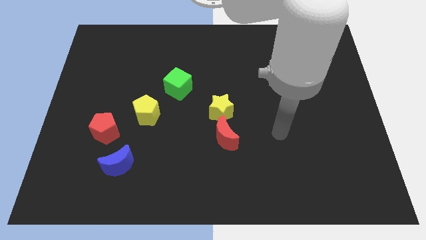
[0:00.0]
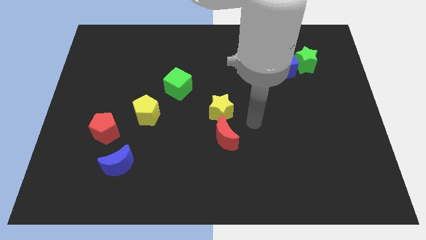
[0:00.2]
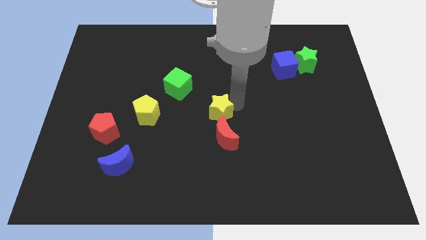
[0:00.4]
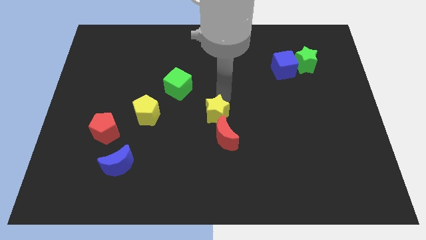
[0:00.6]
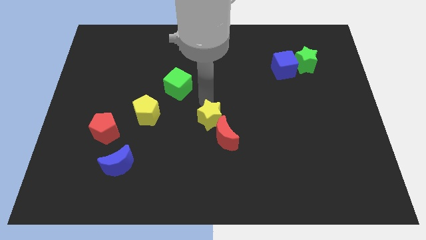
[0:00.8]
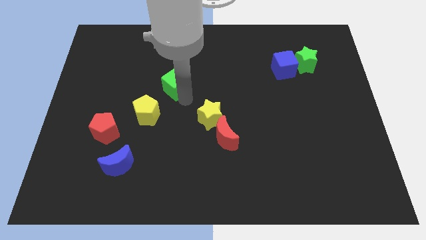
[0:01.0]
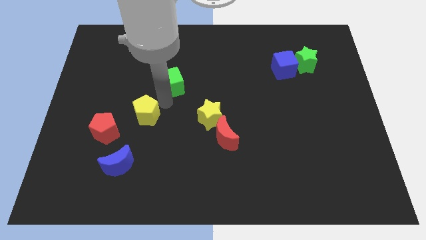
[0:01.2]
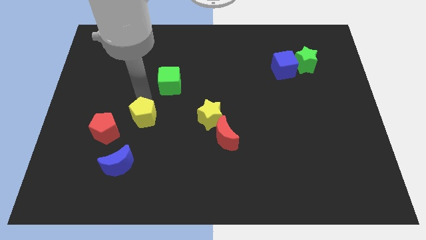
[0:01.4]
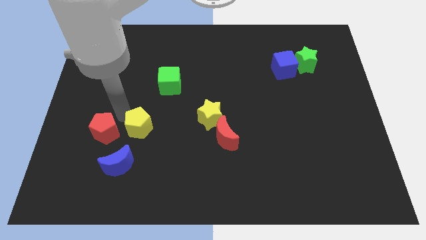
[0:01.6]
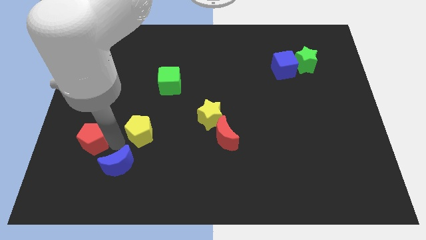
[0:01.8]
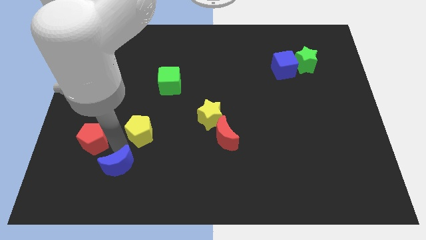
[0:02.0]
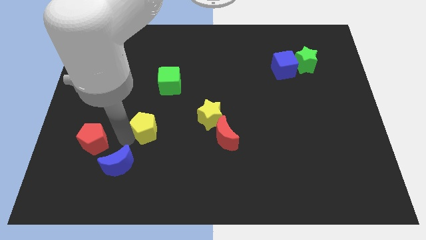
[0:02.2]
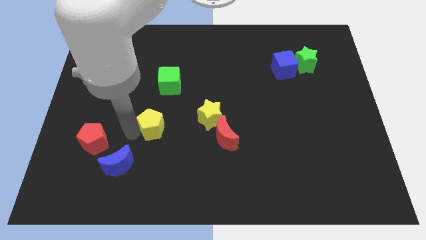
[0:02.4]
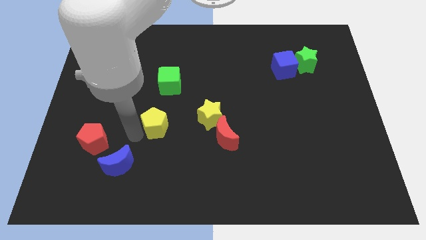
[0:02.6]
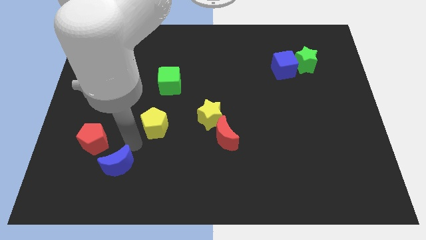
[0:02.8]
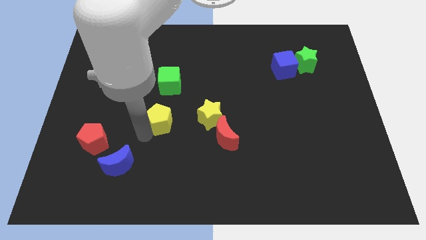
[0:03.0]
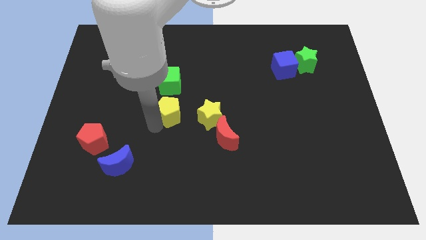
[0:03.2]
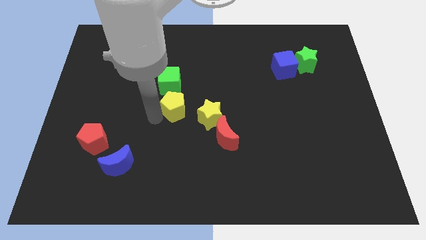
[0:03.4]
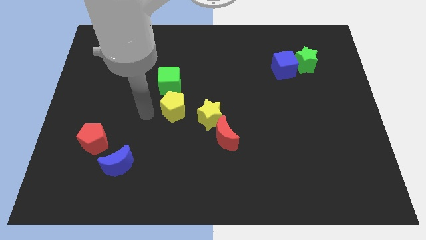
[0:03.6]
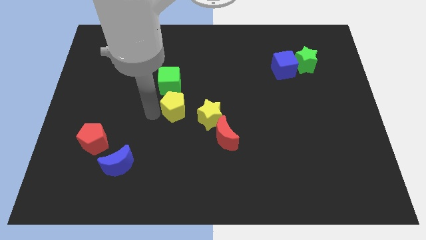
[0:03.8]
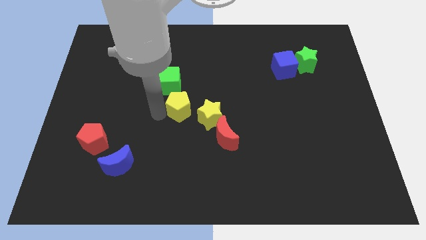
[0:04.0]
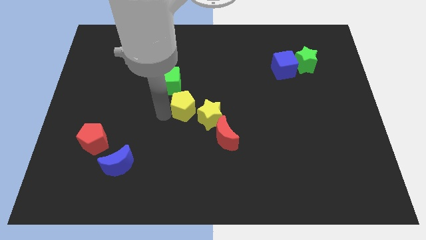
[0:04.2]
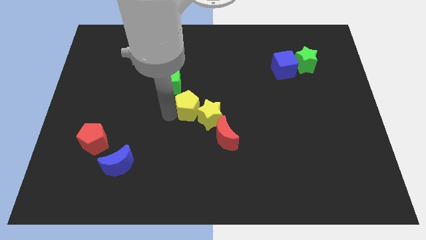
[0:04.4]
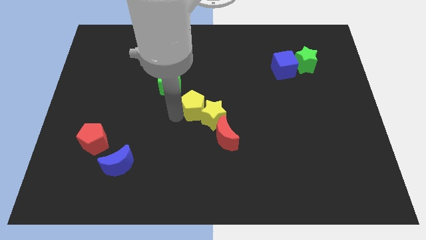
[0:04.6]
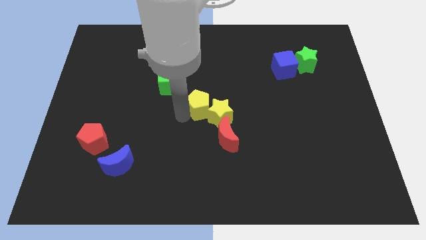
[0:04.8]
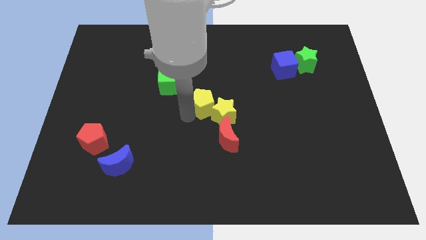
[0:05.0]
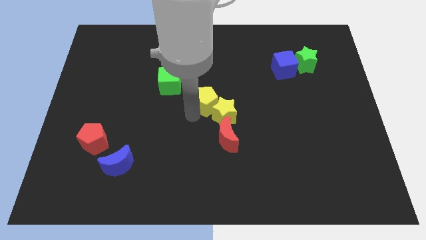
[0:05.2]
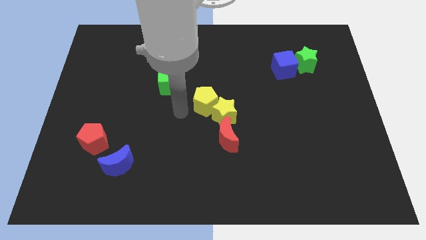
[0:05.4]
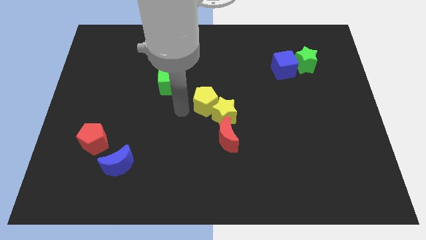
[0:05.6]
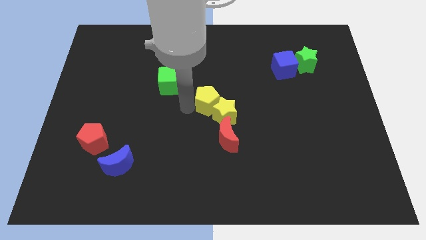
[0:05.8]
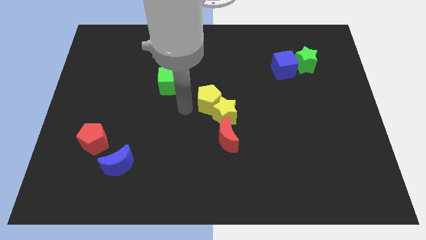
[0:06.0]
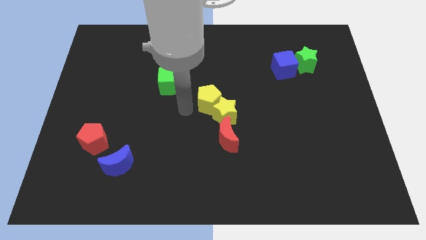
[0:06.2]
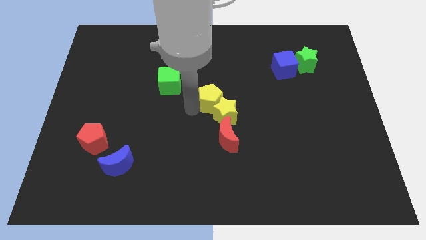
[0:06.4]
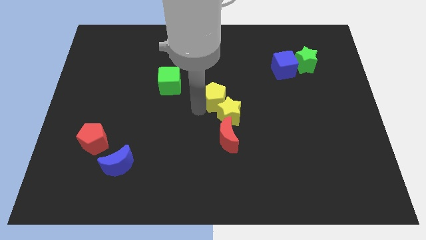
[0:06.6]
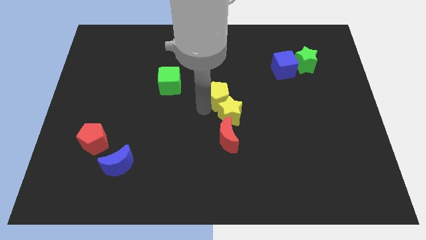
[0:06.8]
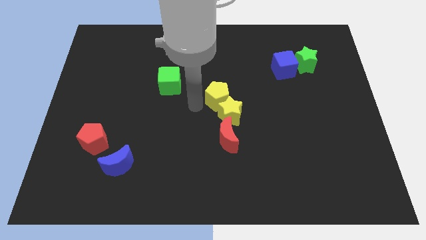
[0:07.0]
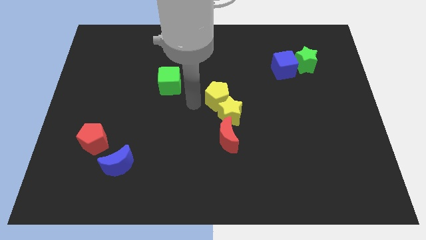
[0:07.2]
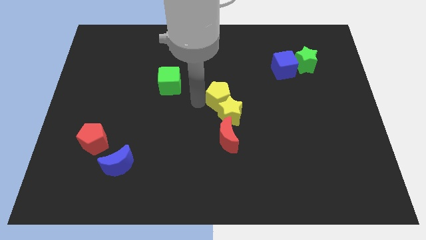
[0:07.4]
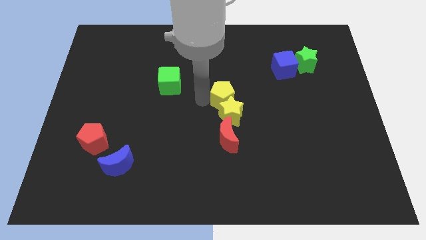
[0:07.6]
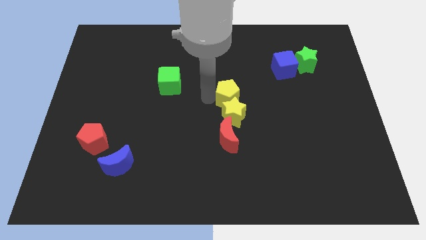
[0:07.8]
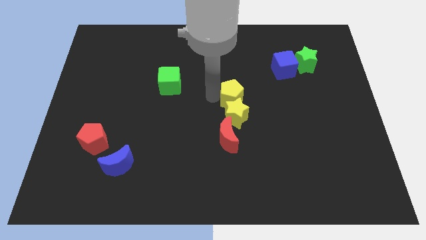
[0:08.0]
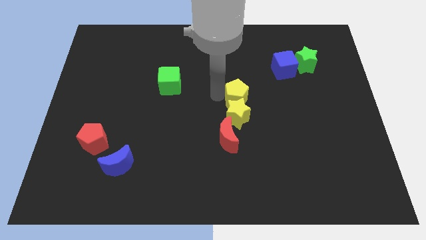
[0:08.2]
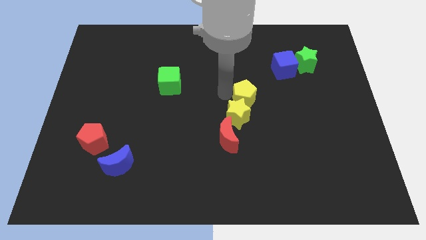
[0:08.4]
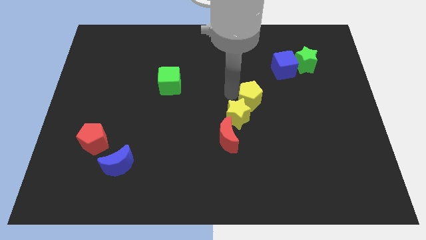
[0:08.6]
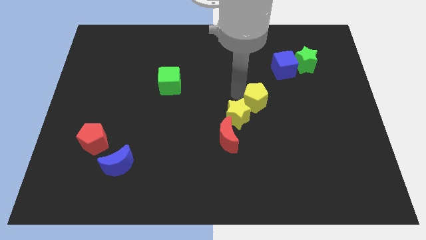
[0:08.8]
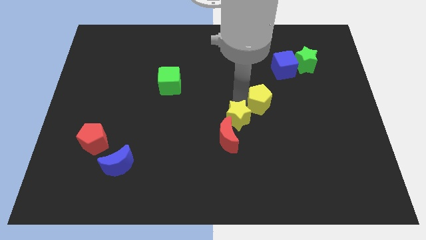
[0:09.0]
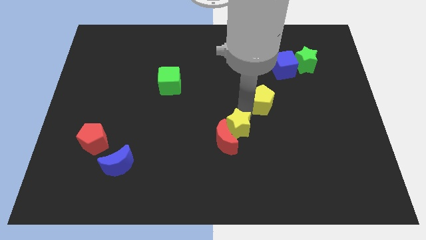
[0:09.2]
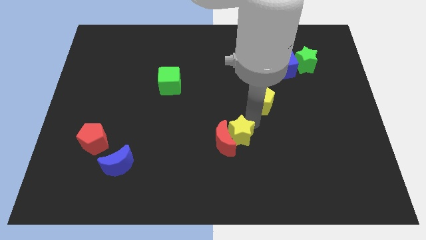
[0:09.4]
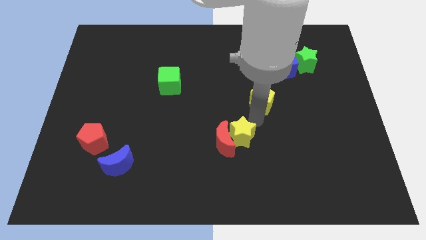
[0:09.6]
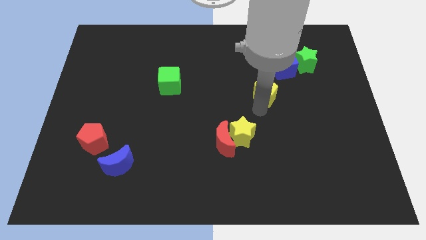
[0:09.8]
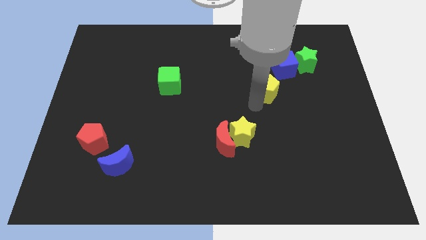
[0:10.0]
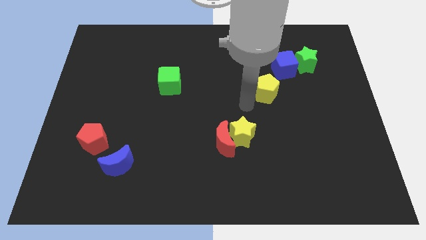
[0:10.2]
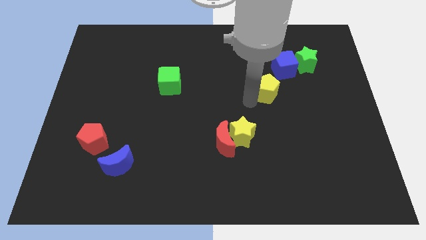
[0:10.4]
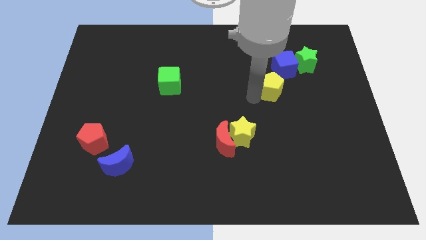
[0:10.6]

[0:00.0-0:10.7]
put the yellow pentagon to the bottom left of the green star

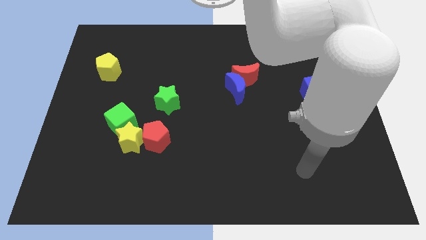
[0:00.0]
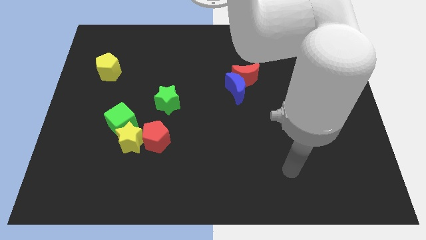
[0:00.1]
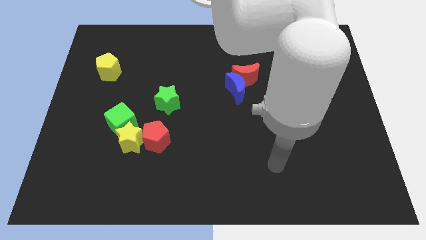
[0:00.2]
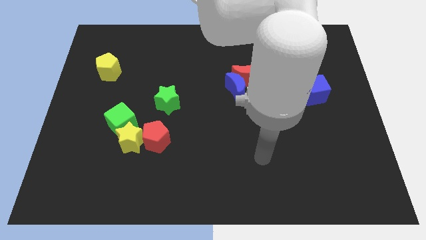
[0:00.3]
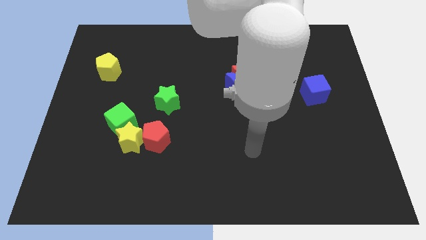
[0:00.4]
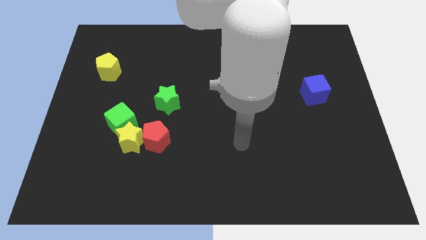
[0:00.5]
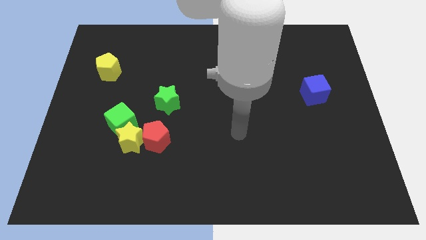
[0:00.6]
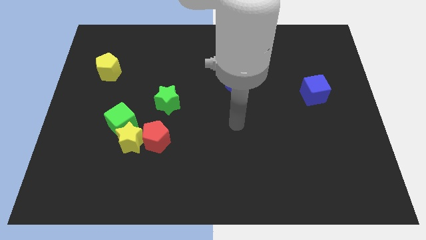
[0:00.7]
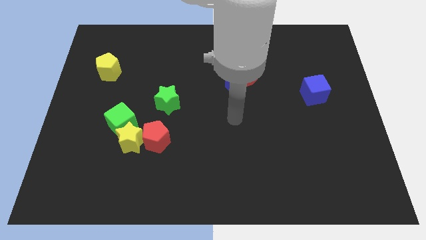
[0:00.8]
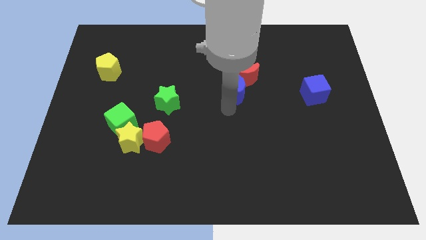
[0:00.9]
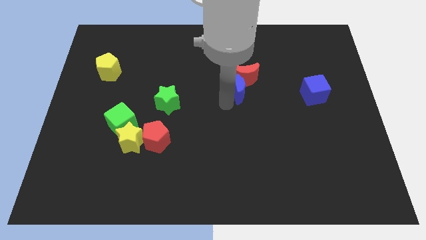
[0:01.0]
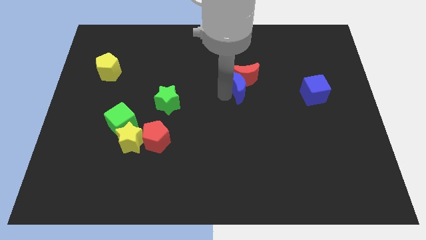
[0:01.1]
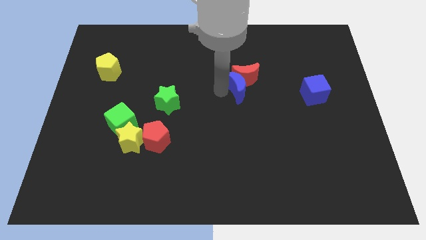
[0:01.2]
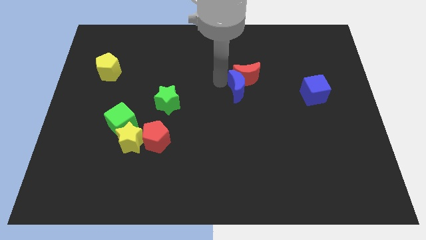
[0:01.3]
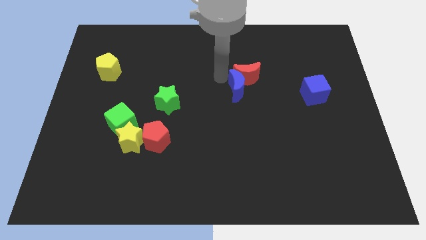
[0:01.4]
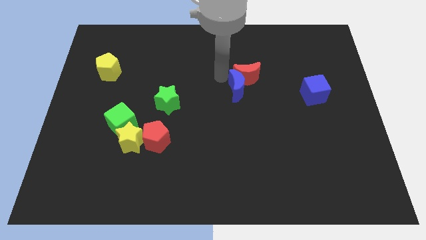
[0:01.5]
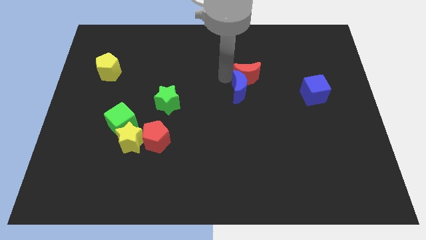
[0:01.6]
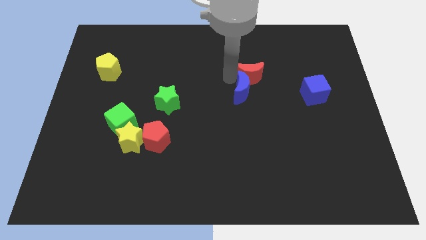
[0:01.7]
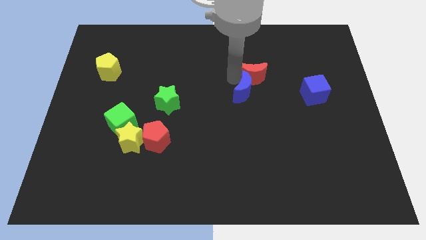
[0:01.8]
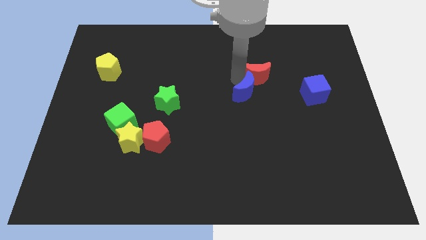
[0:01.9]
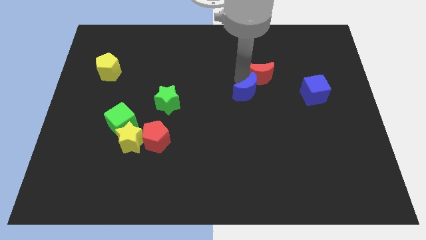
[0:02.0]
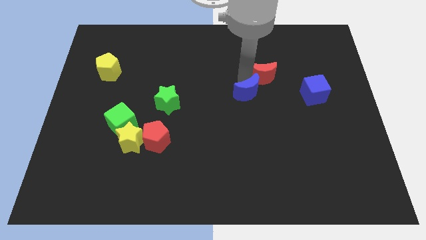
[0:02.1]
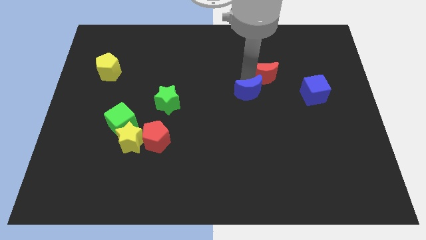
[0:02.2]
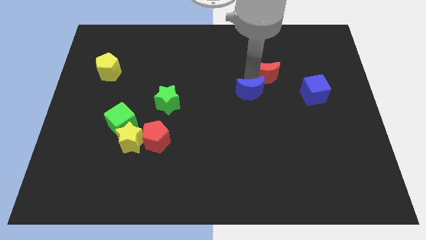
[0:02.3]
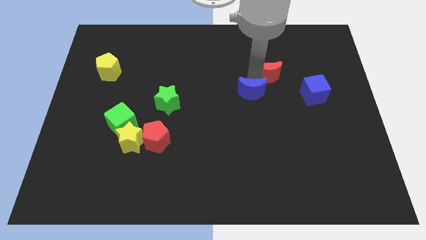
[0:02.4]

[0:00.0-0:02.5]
put the red moon diagonally up and to the left of the blue cube
